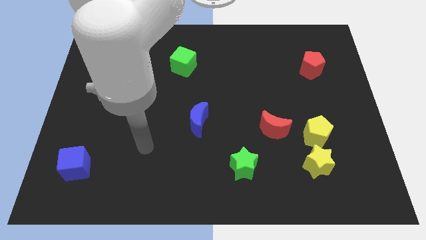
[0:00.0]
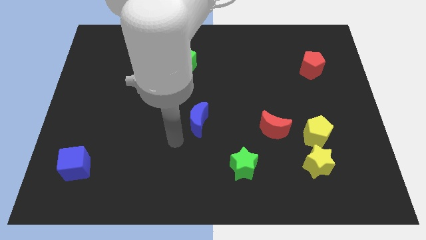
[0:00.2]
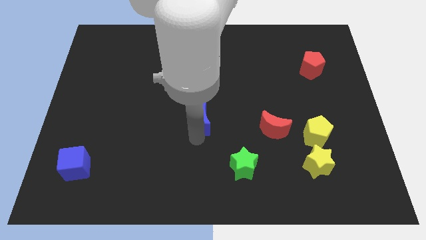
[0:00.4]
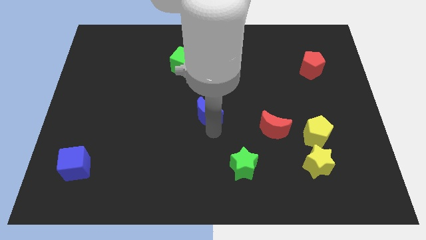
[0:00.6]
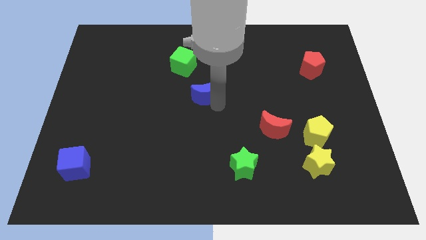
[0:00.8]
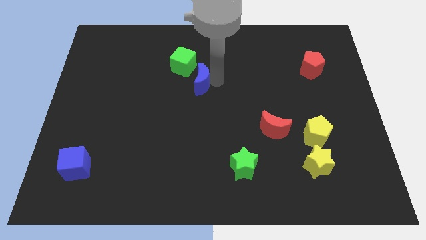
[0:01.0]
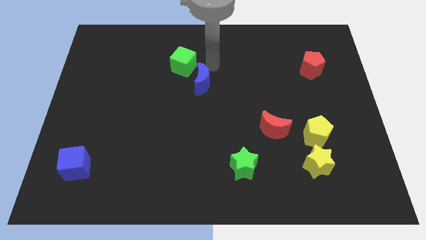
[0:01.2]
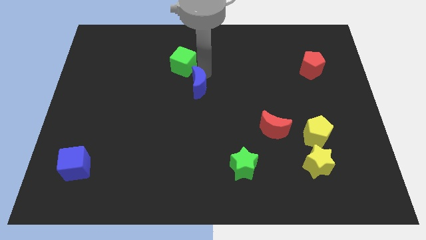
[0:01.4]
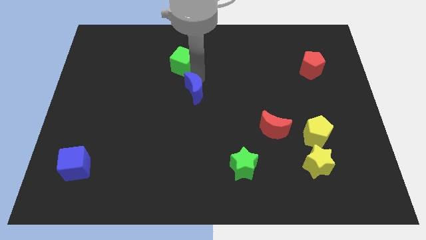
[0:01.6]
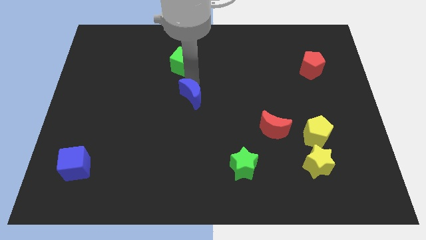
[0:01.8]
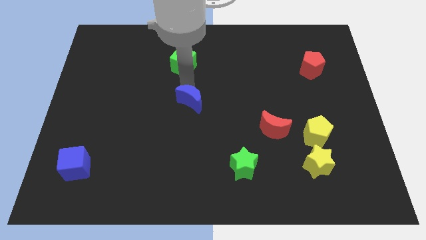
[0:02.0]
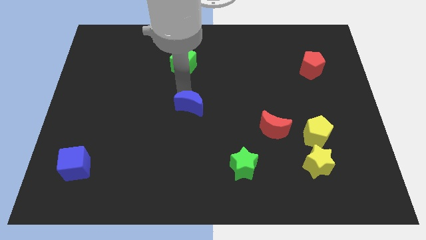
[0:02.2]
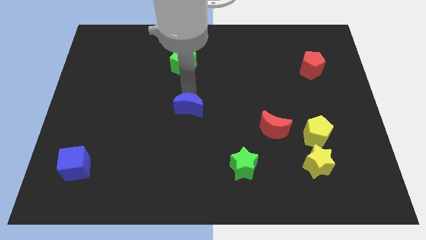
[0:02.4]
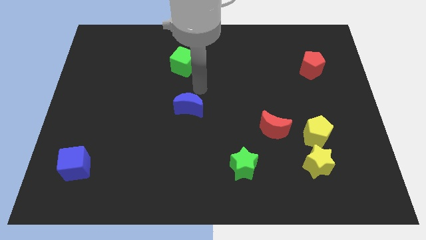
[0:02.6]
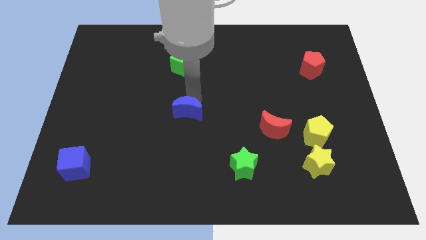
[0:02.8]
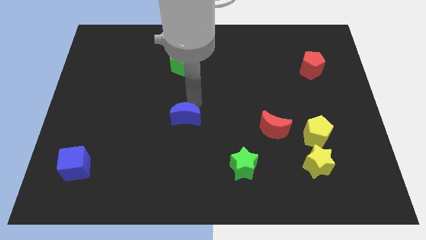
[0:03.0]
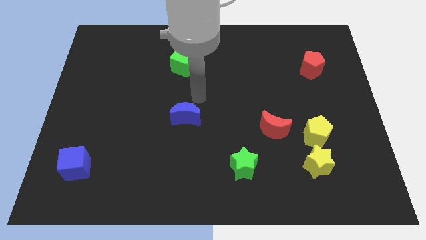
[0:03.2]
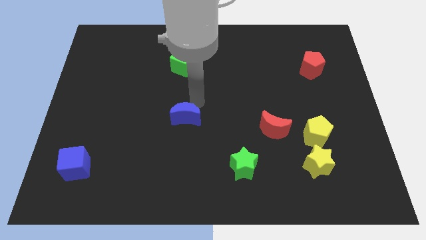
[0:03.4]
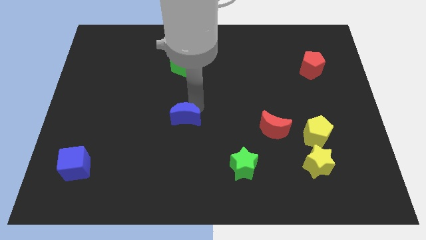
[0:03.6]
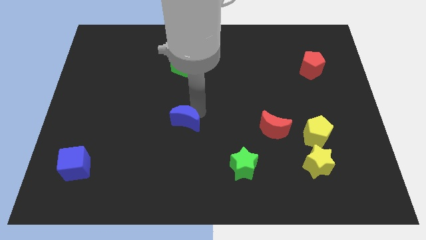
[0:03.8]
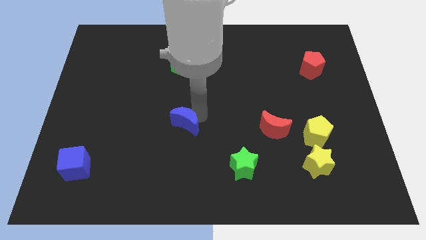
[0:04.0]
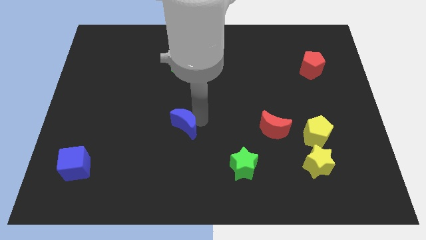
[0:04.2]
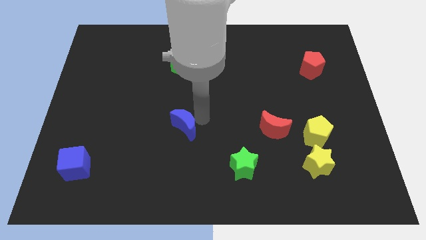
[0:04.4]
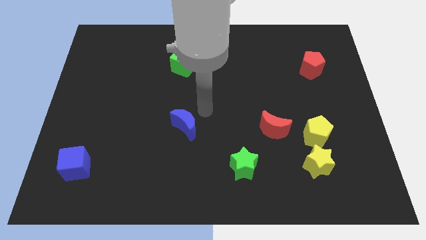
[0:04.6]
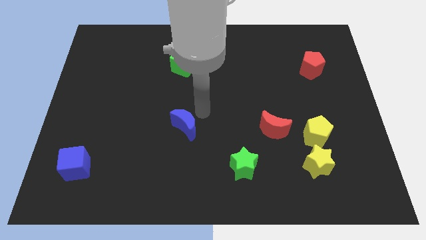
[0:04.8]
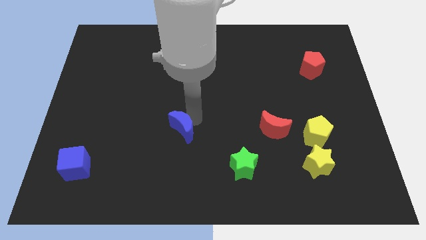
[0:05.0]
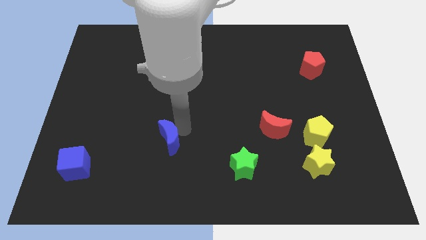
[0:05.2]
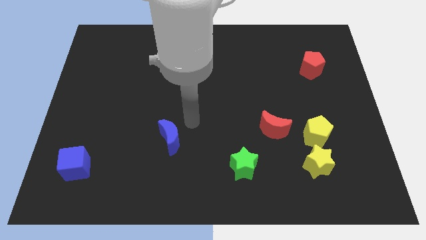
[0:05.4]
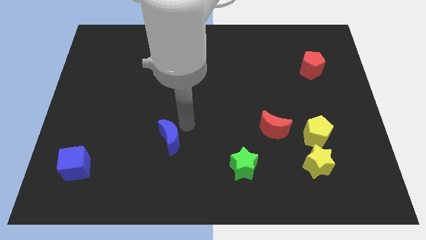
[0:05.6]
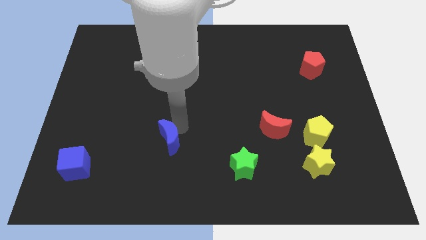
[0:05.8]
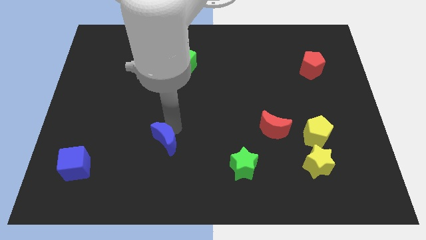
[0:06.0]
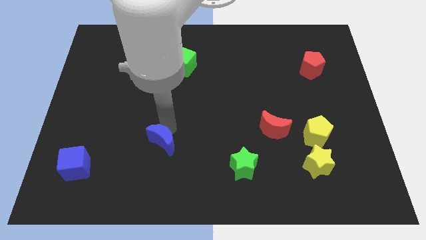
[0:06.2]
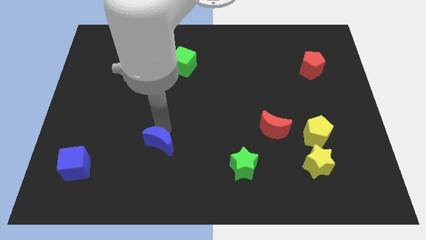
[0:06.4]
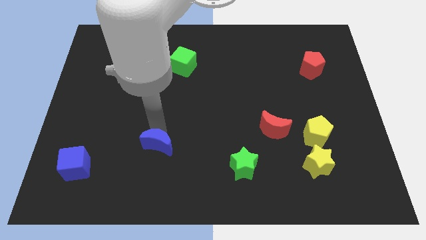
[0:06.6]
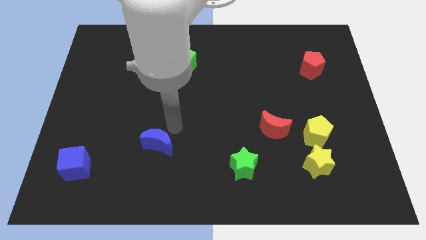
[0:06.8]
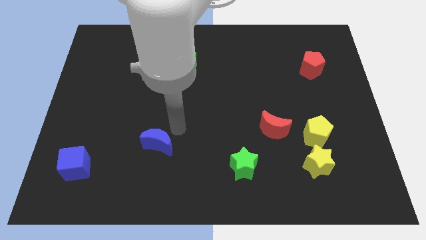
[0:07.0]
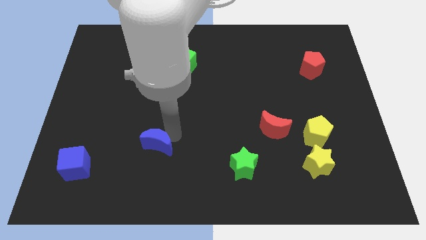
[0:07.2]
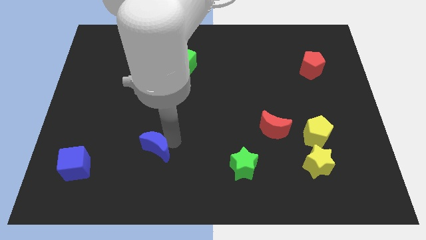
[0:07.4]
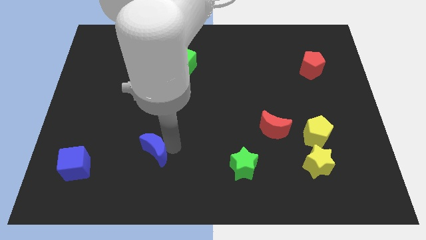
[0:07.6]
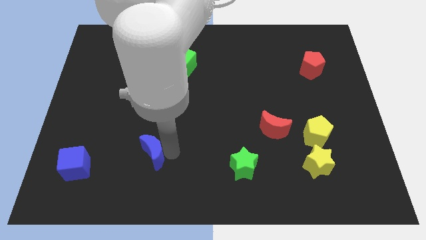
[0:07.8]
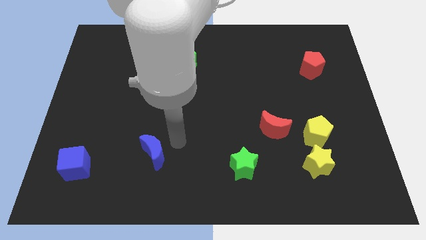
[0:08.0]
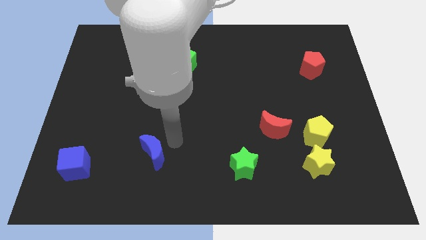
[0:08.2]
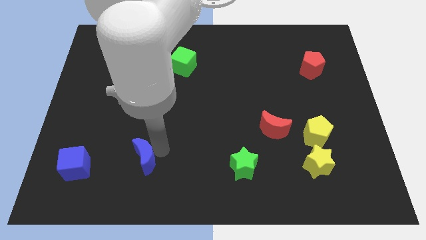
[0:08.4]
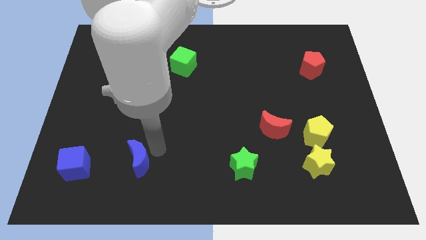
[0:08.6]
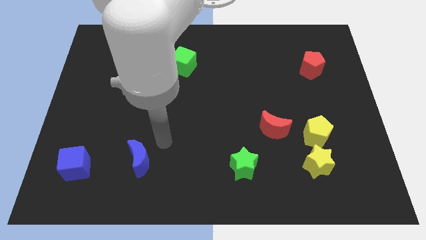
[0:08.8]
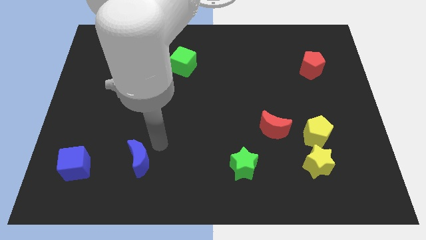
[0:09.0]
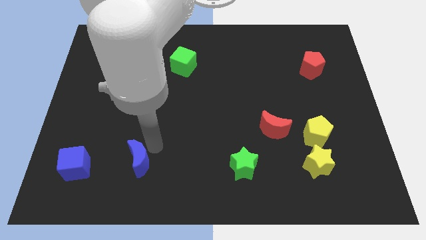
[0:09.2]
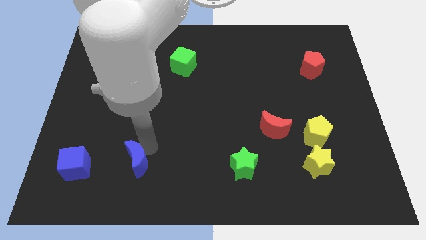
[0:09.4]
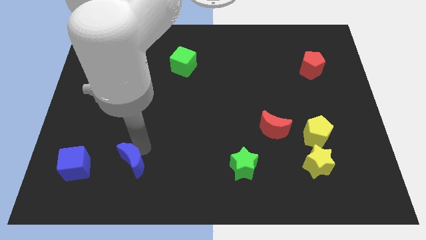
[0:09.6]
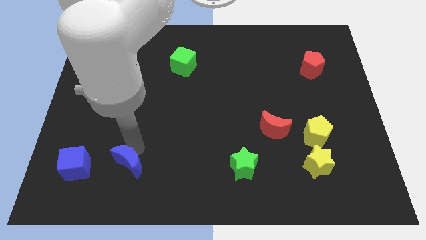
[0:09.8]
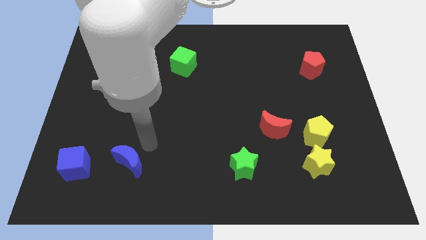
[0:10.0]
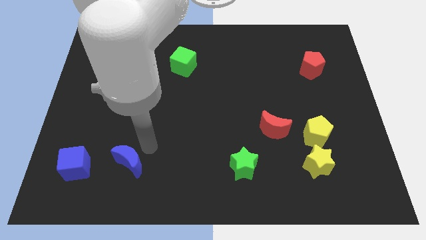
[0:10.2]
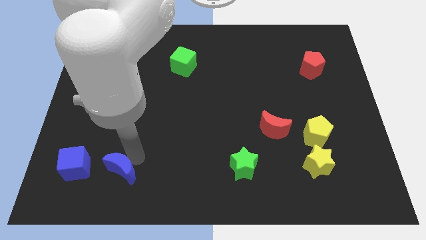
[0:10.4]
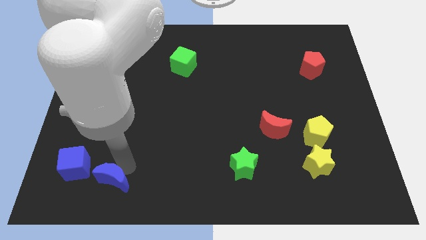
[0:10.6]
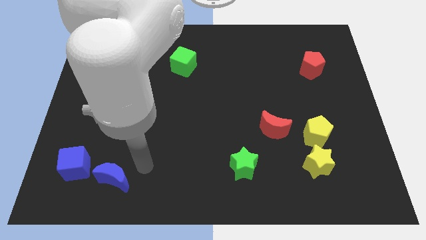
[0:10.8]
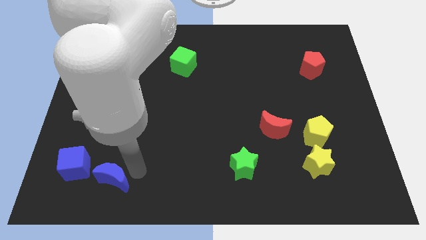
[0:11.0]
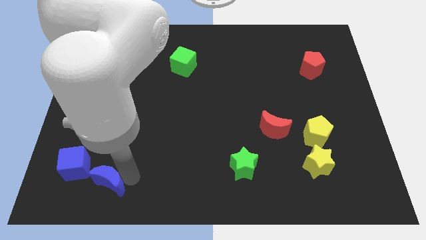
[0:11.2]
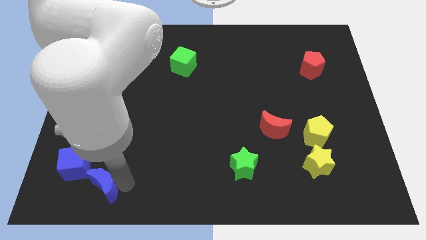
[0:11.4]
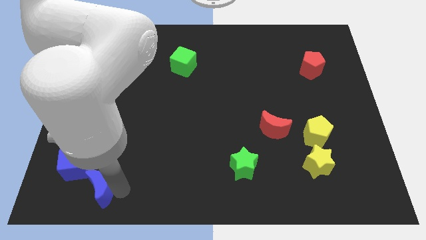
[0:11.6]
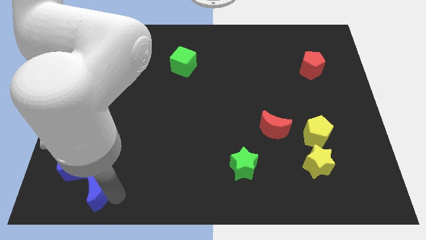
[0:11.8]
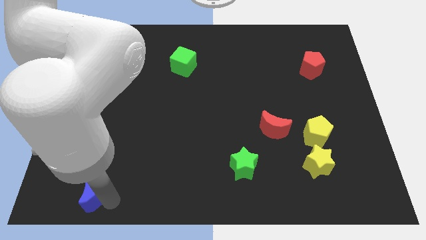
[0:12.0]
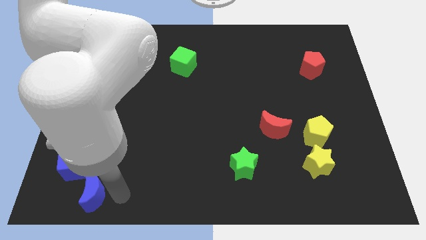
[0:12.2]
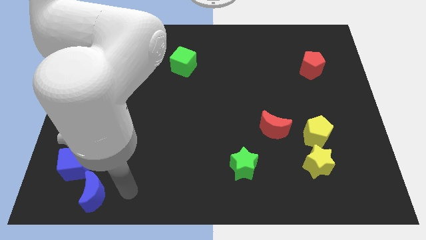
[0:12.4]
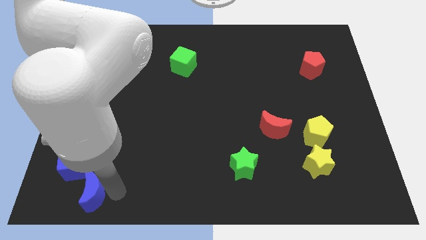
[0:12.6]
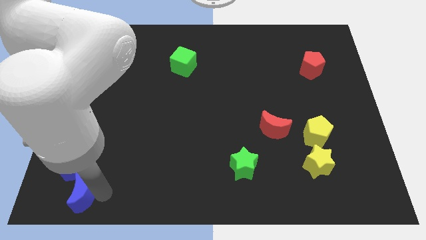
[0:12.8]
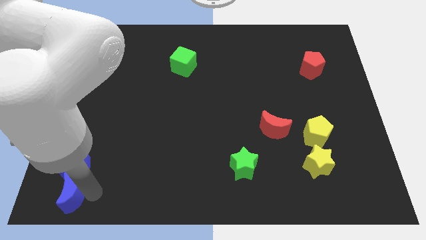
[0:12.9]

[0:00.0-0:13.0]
slide the blue moon to the bottom left
